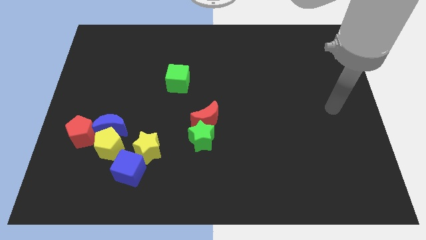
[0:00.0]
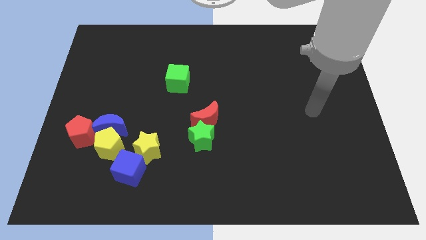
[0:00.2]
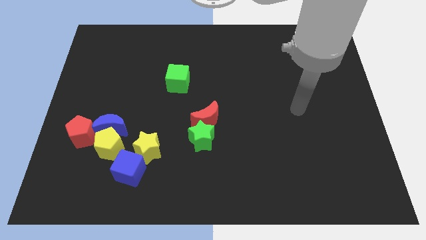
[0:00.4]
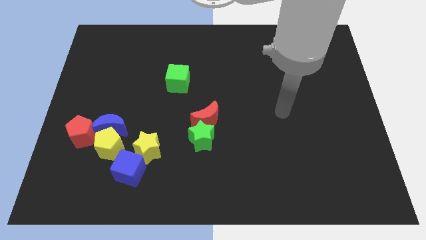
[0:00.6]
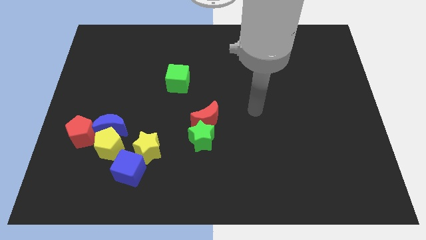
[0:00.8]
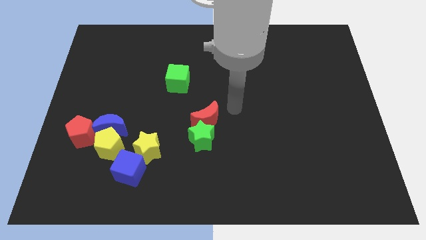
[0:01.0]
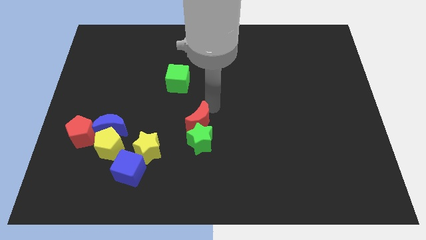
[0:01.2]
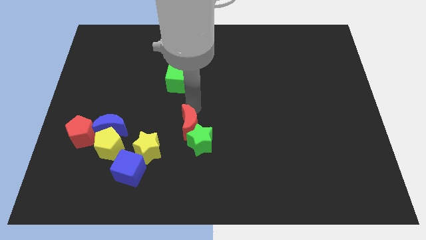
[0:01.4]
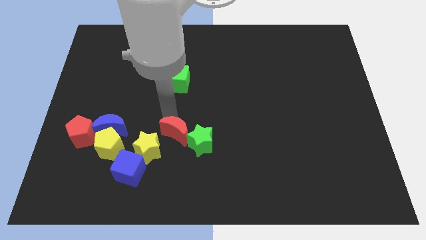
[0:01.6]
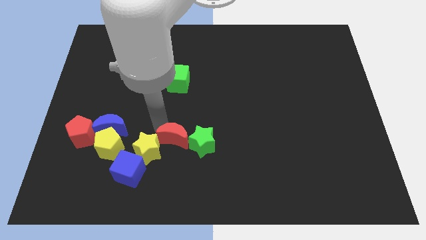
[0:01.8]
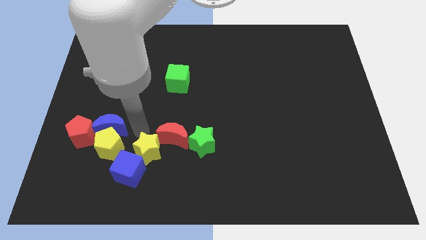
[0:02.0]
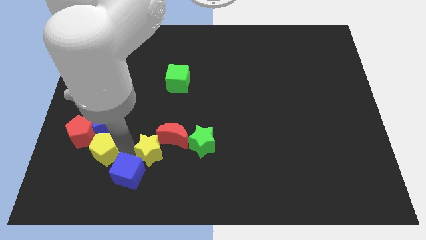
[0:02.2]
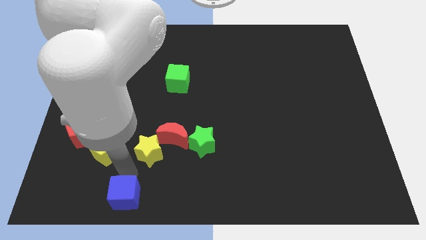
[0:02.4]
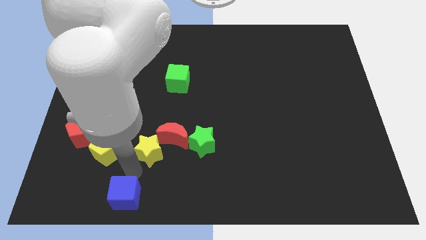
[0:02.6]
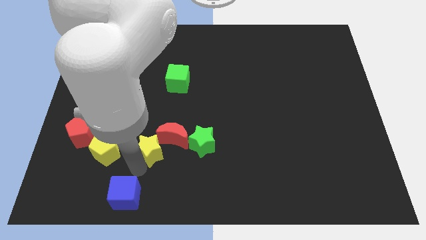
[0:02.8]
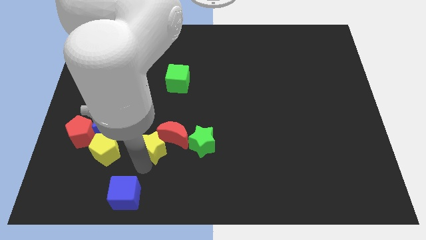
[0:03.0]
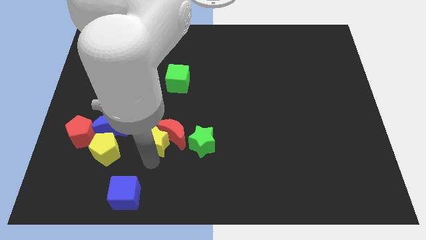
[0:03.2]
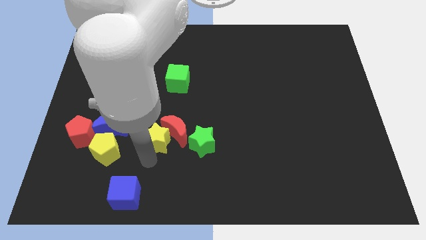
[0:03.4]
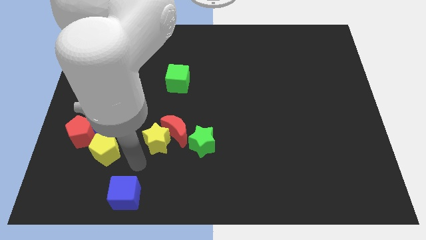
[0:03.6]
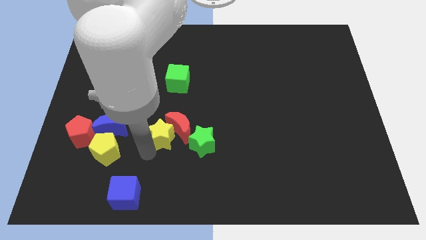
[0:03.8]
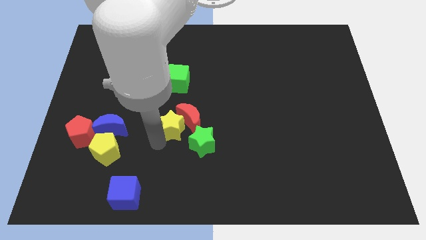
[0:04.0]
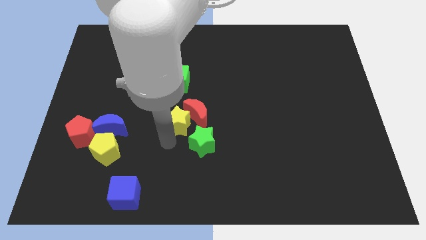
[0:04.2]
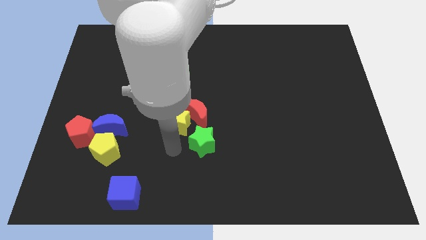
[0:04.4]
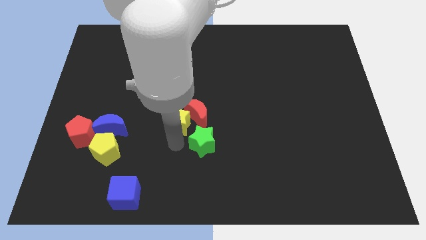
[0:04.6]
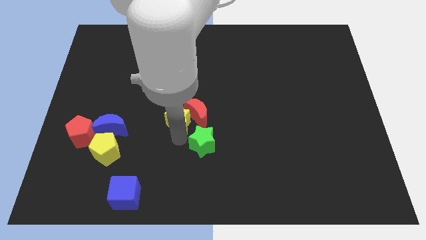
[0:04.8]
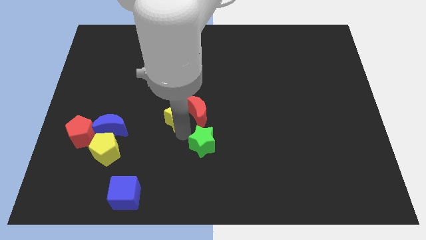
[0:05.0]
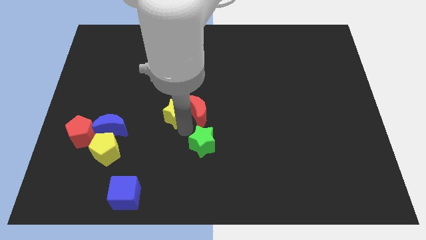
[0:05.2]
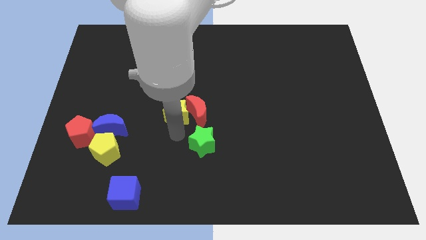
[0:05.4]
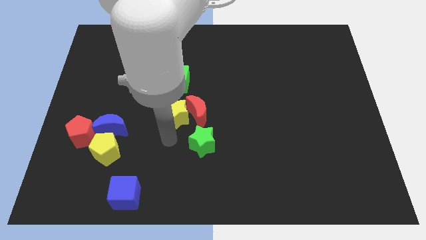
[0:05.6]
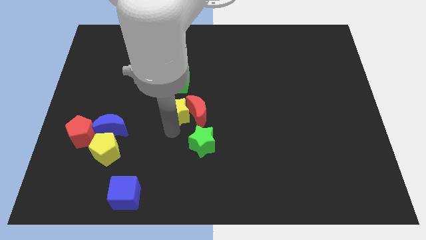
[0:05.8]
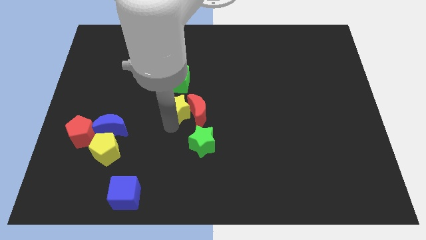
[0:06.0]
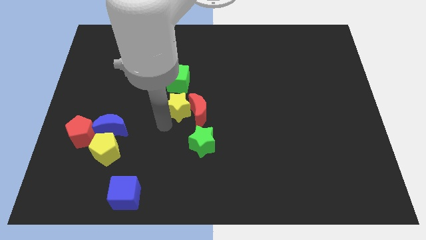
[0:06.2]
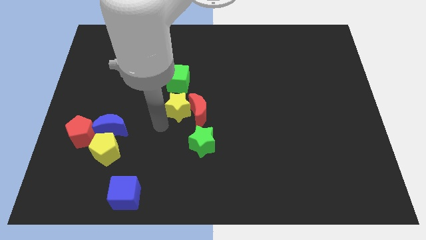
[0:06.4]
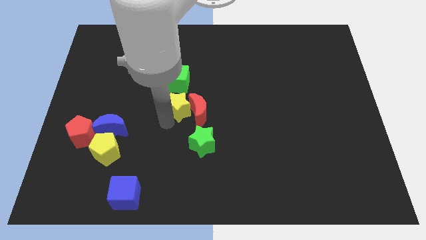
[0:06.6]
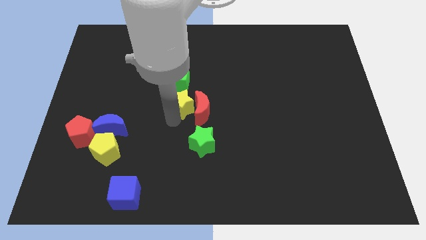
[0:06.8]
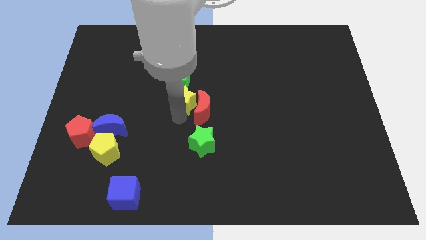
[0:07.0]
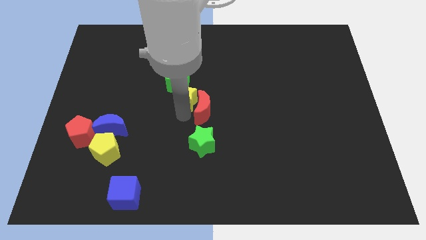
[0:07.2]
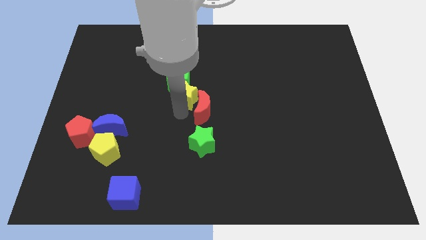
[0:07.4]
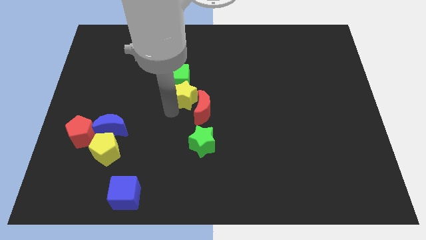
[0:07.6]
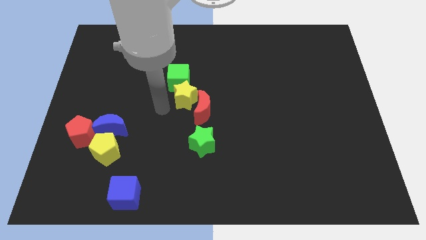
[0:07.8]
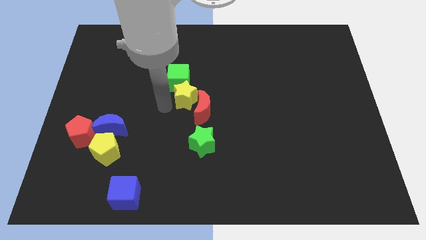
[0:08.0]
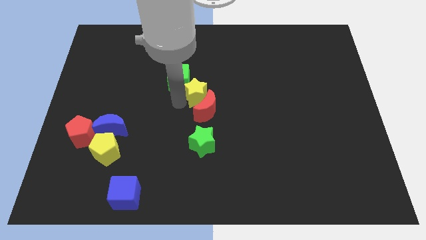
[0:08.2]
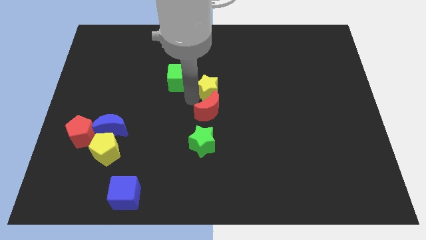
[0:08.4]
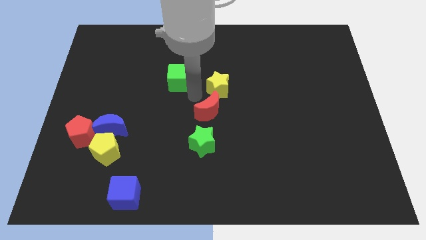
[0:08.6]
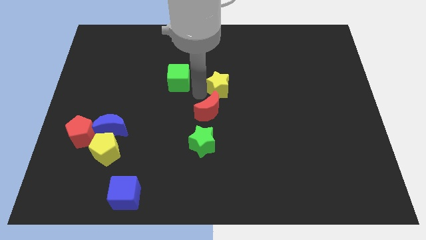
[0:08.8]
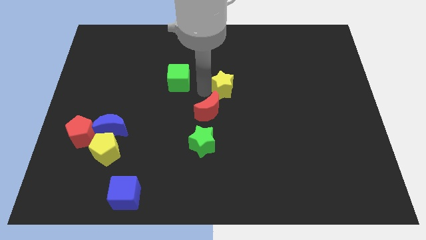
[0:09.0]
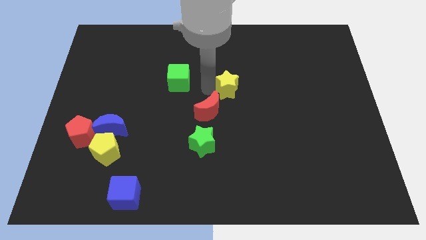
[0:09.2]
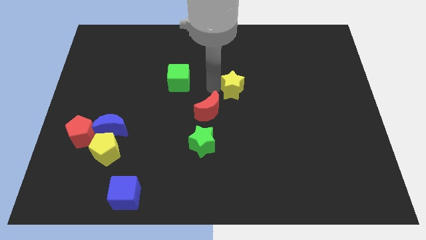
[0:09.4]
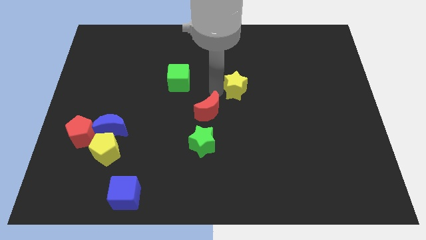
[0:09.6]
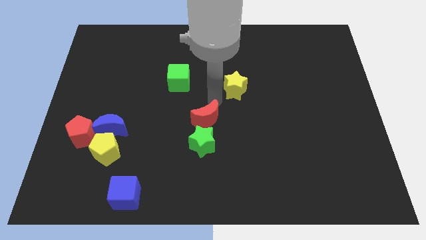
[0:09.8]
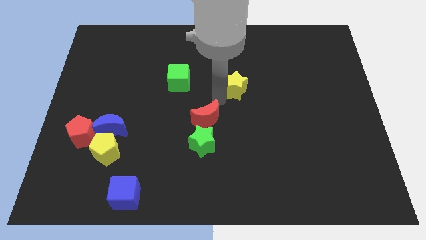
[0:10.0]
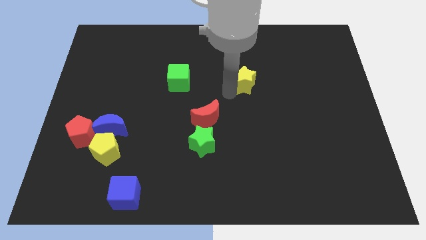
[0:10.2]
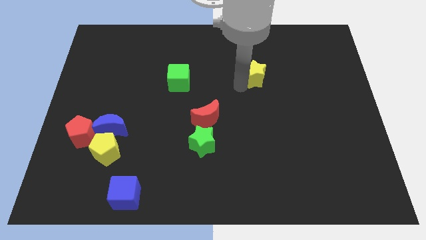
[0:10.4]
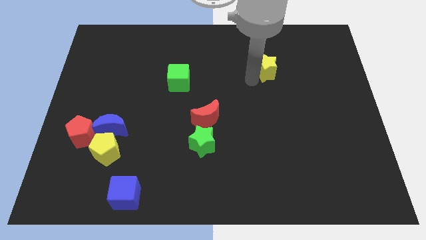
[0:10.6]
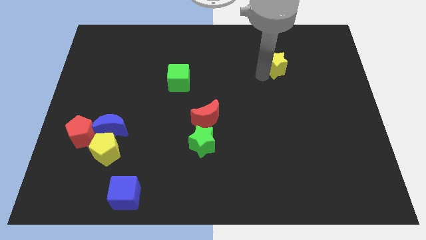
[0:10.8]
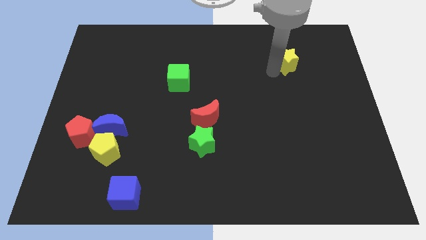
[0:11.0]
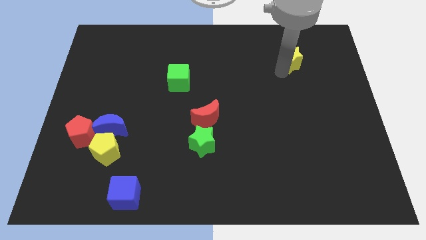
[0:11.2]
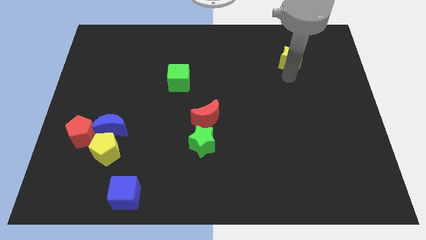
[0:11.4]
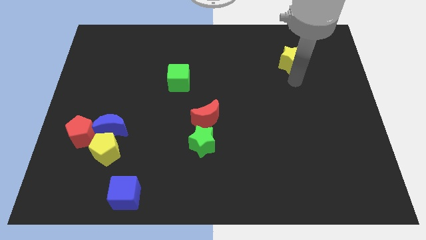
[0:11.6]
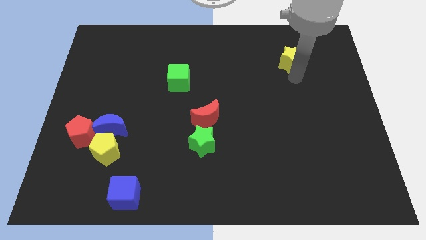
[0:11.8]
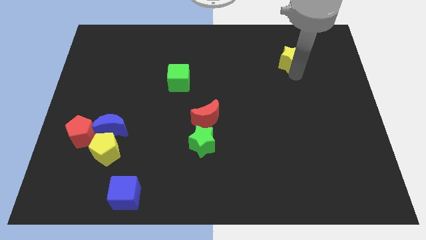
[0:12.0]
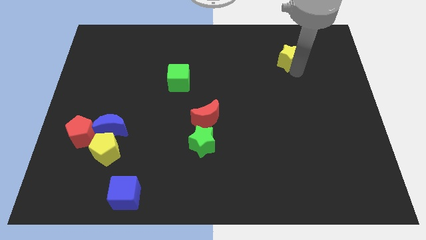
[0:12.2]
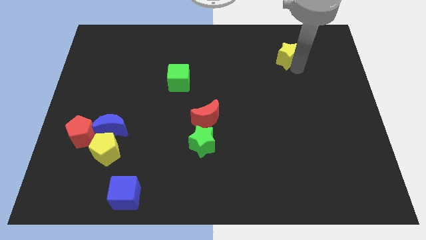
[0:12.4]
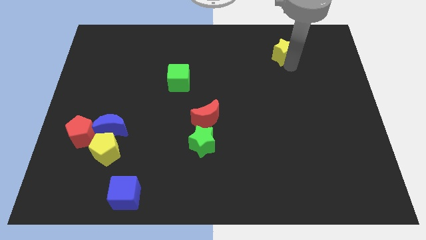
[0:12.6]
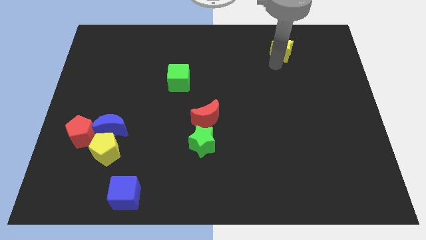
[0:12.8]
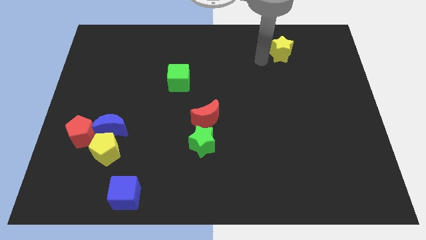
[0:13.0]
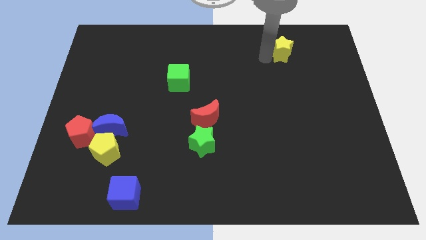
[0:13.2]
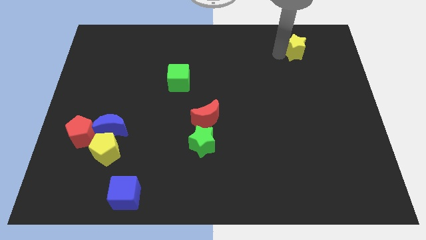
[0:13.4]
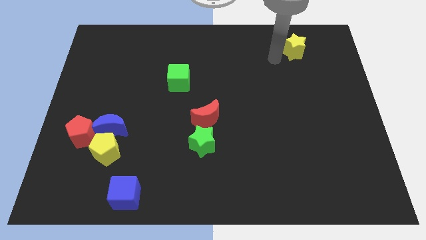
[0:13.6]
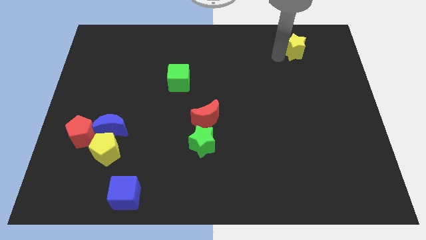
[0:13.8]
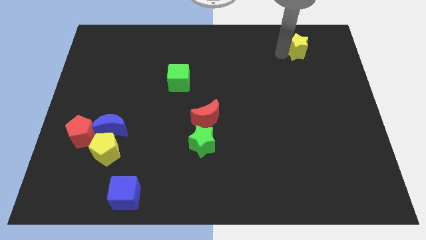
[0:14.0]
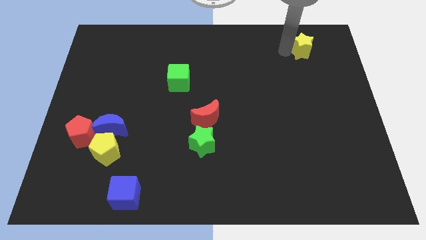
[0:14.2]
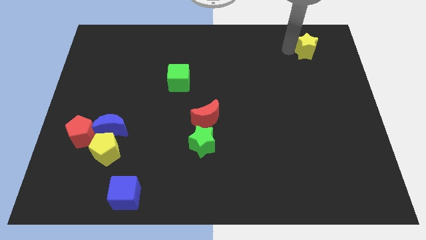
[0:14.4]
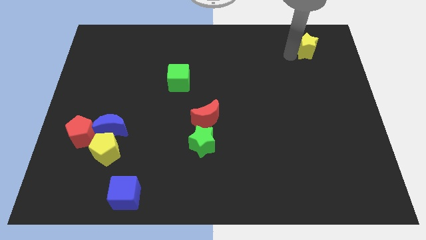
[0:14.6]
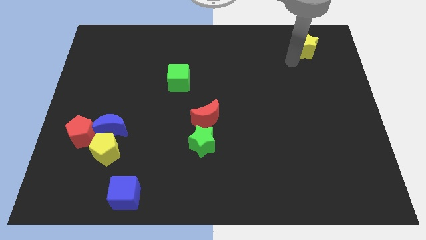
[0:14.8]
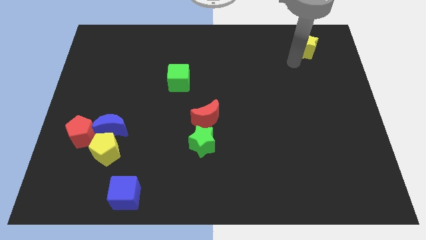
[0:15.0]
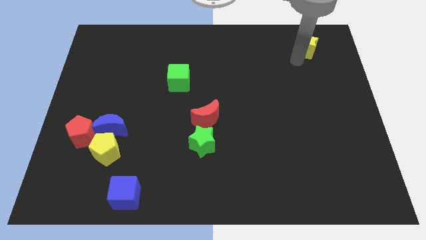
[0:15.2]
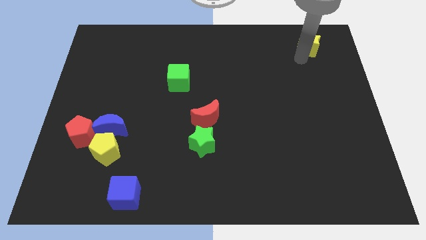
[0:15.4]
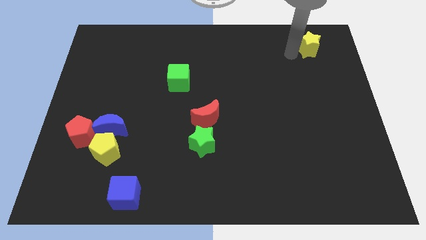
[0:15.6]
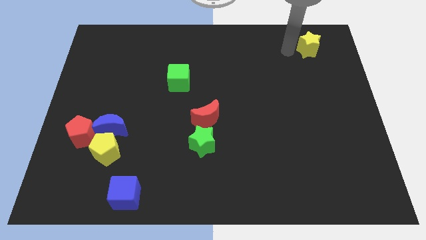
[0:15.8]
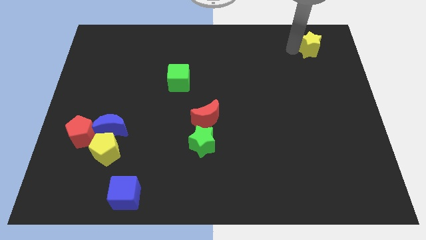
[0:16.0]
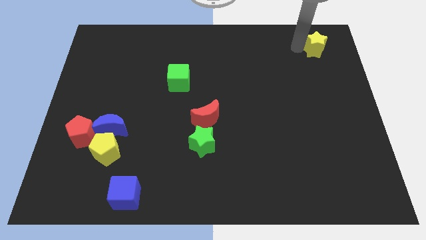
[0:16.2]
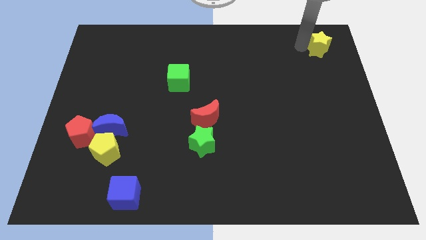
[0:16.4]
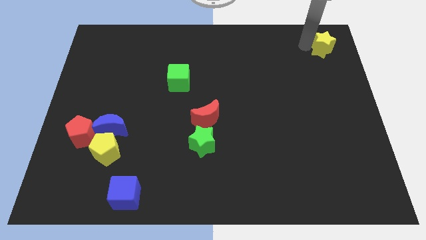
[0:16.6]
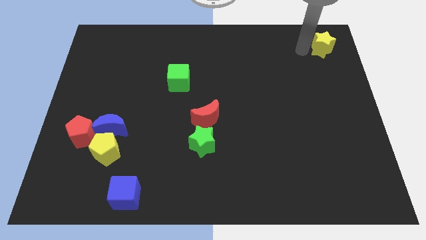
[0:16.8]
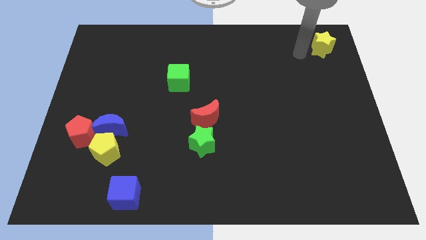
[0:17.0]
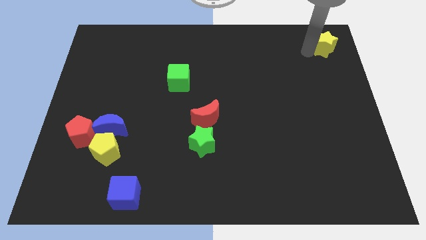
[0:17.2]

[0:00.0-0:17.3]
push the yellow star to the top right corner
